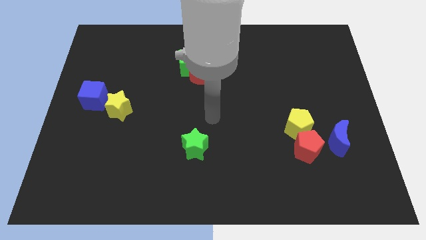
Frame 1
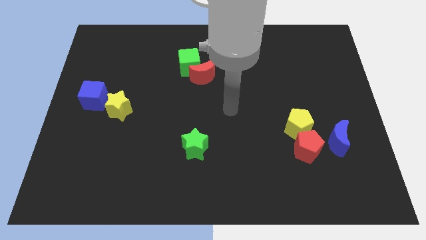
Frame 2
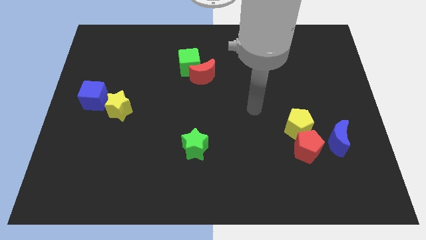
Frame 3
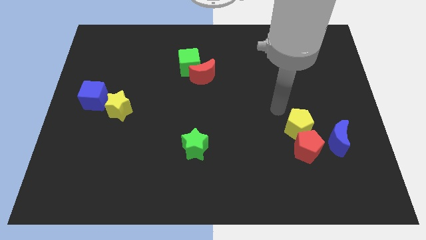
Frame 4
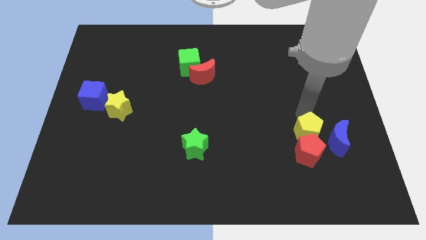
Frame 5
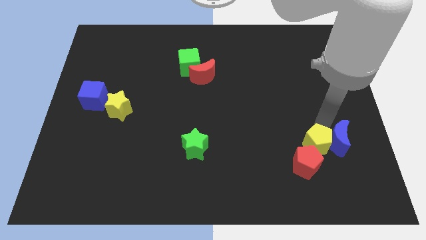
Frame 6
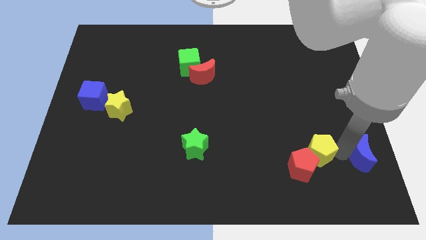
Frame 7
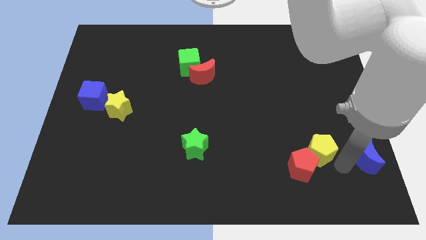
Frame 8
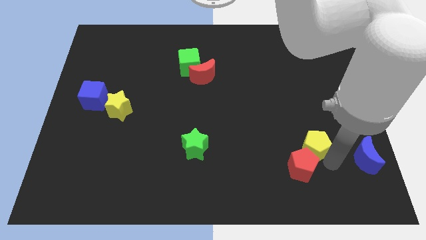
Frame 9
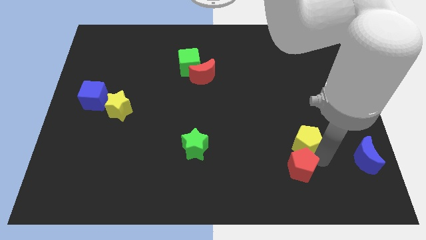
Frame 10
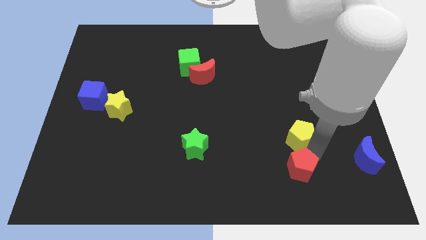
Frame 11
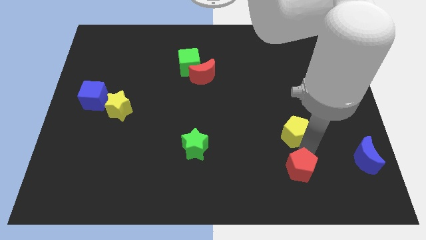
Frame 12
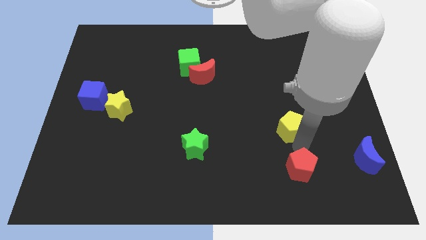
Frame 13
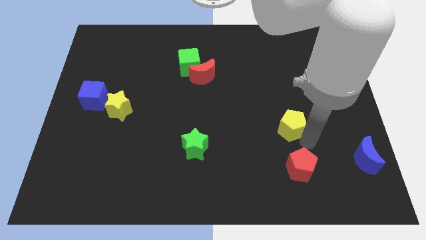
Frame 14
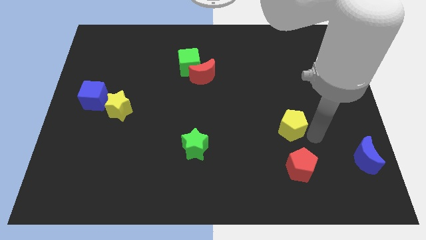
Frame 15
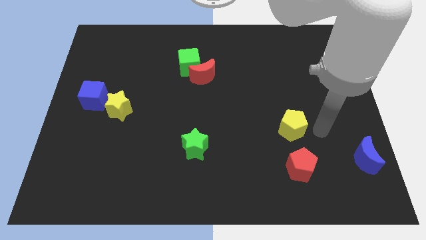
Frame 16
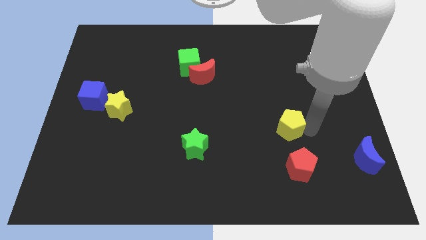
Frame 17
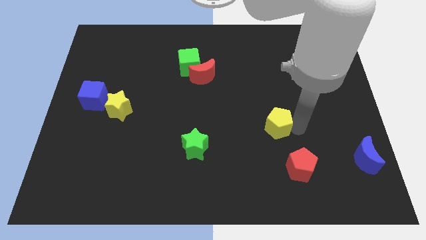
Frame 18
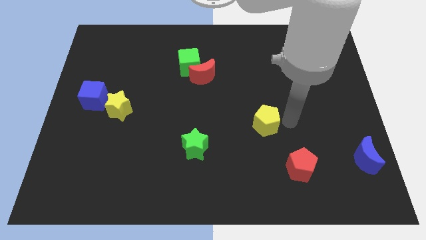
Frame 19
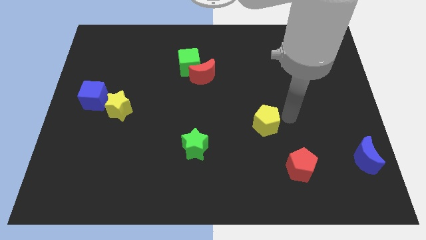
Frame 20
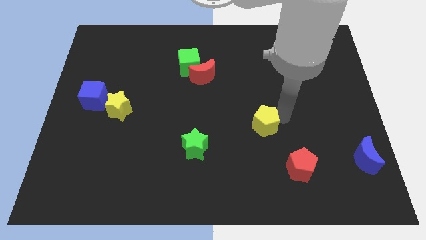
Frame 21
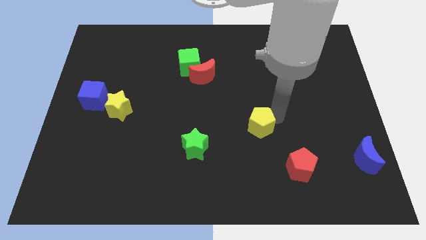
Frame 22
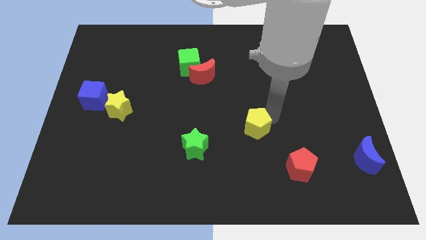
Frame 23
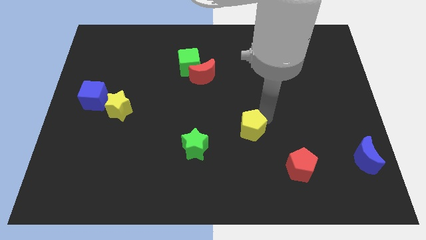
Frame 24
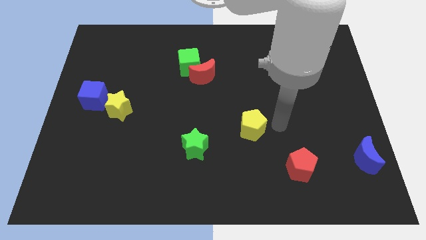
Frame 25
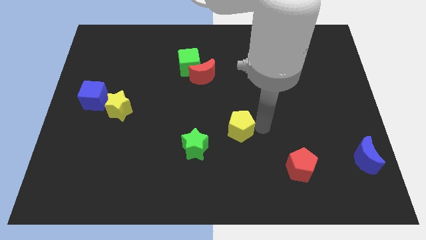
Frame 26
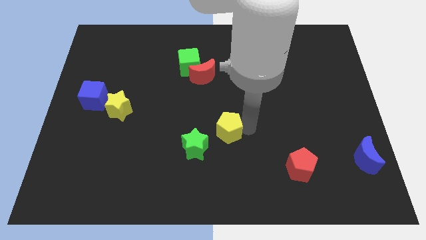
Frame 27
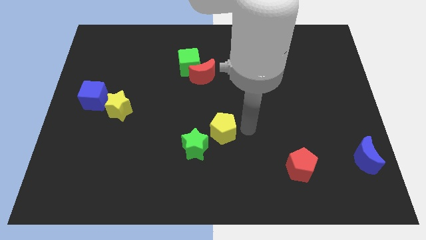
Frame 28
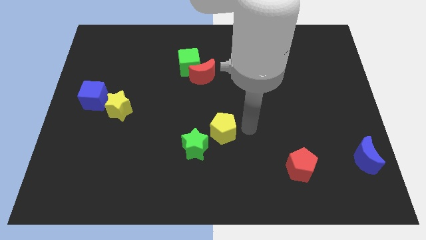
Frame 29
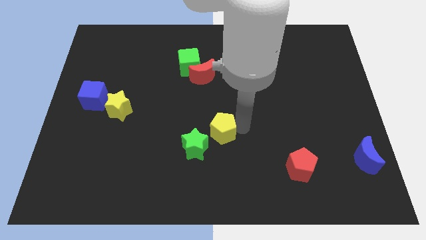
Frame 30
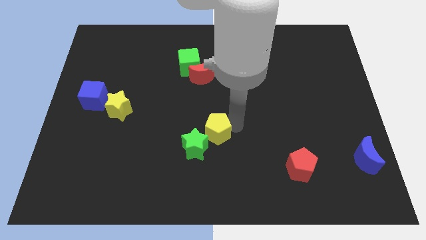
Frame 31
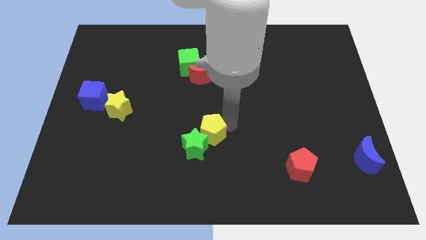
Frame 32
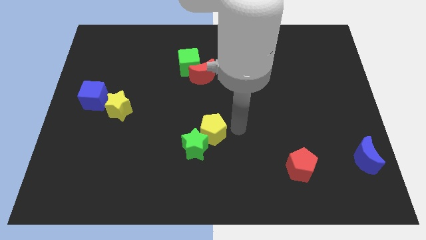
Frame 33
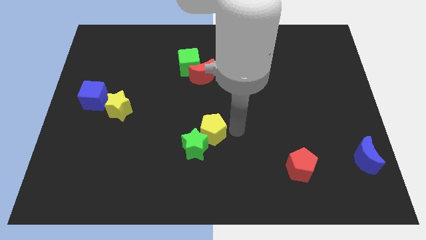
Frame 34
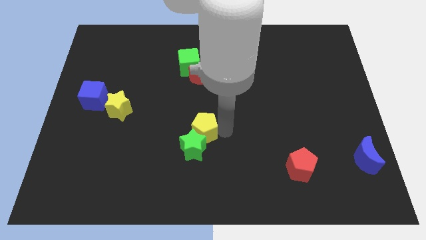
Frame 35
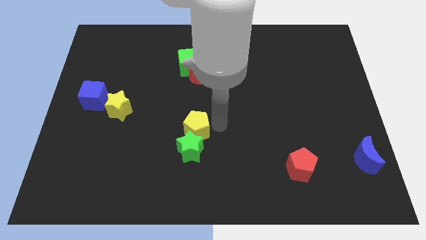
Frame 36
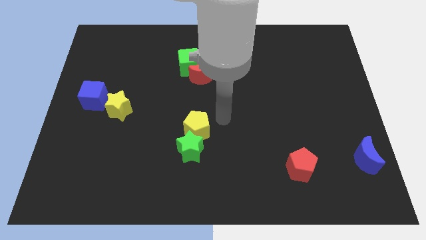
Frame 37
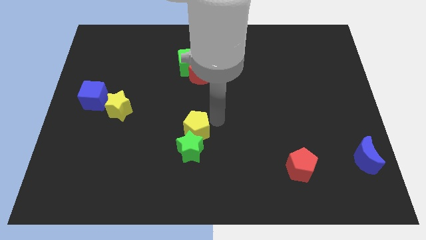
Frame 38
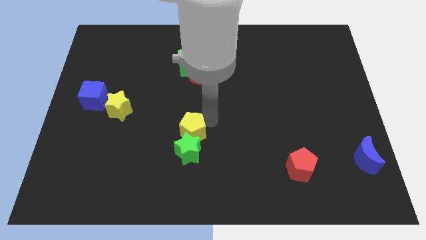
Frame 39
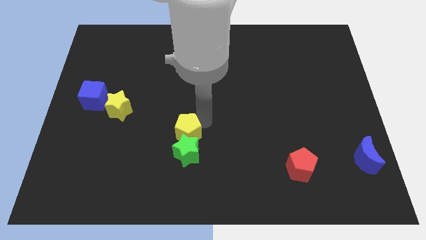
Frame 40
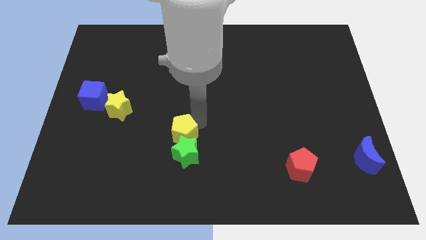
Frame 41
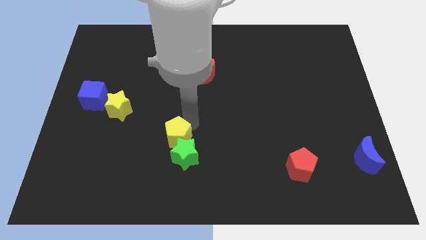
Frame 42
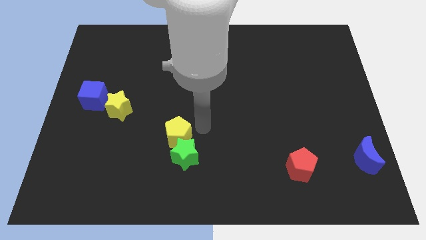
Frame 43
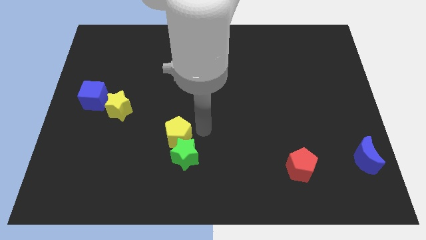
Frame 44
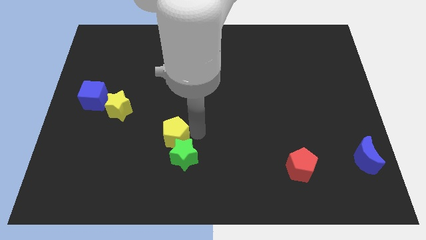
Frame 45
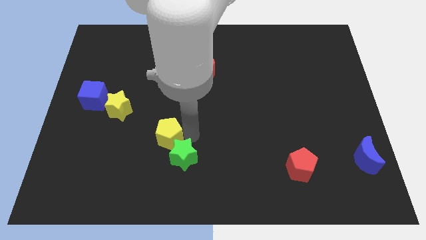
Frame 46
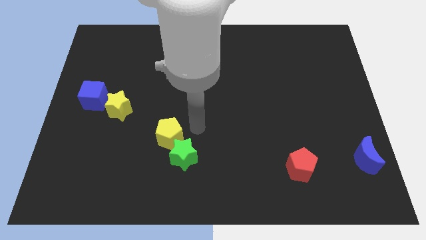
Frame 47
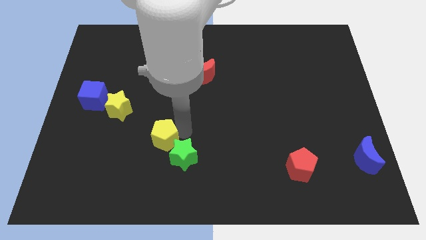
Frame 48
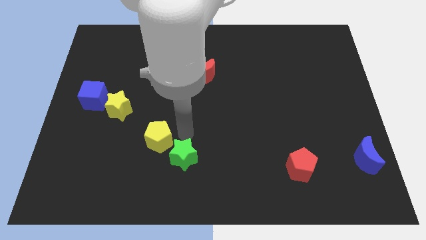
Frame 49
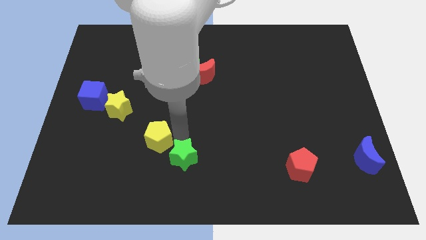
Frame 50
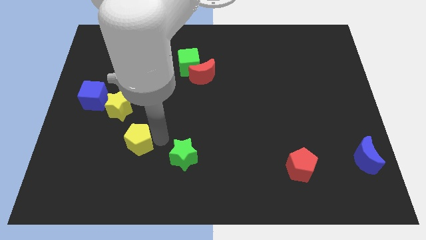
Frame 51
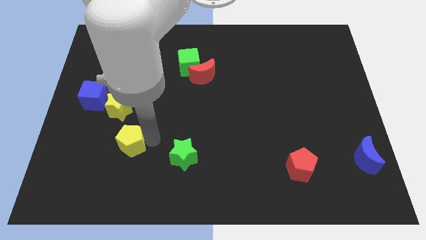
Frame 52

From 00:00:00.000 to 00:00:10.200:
move the yellow pentagon to the bottom of the yellow star

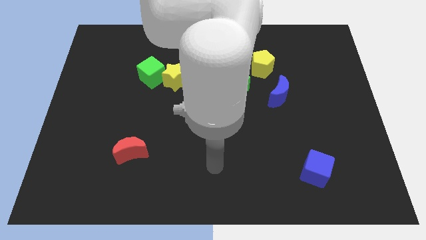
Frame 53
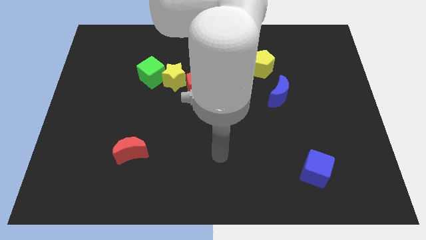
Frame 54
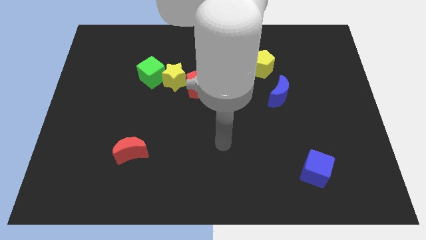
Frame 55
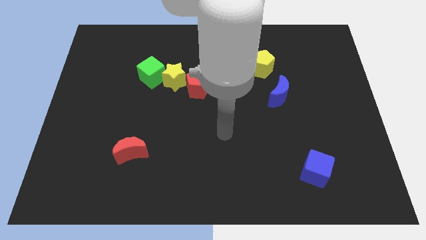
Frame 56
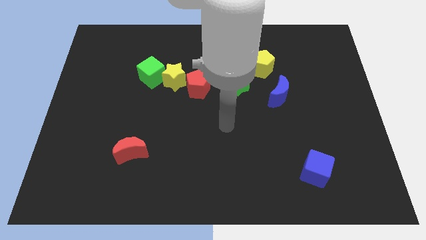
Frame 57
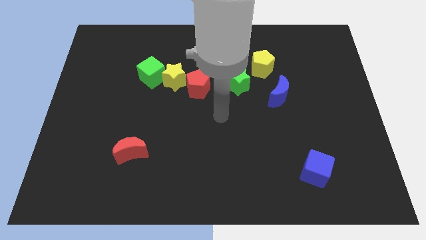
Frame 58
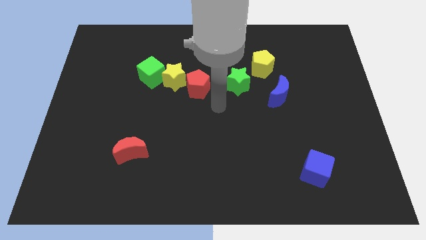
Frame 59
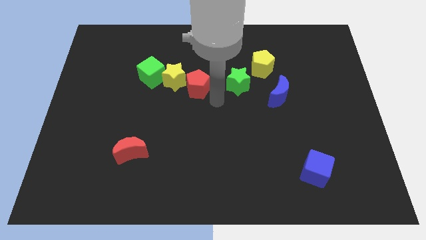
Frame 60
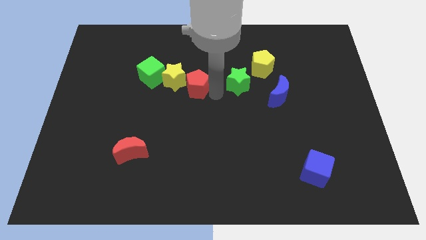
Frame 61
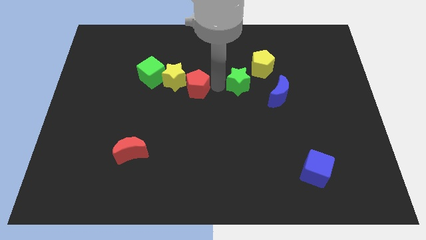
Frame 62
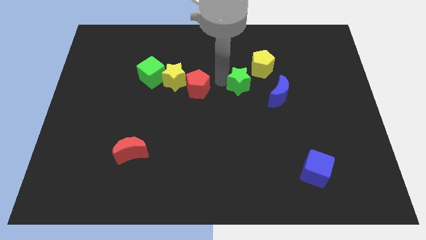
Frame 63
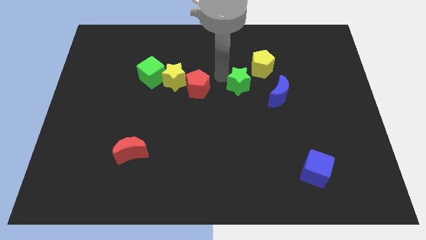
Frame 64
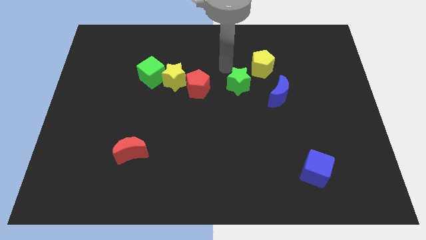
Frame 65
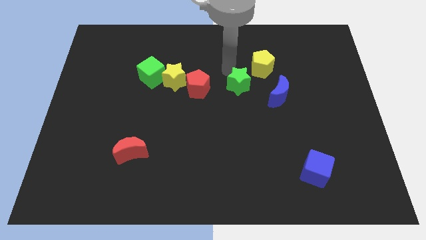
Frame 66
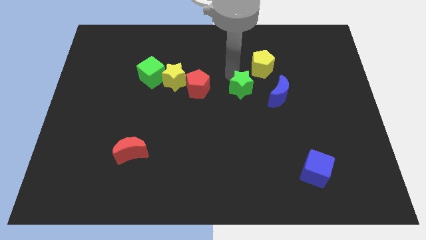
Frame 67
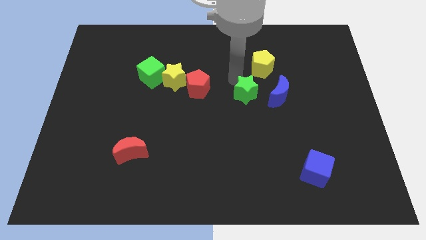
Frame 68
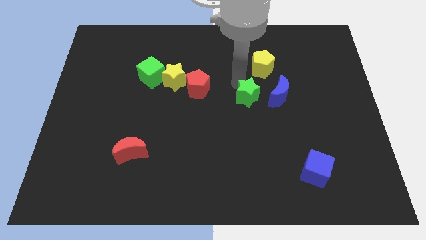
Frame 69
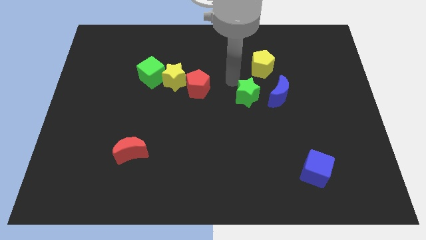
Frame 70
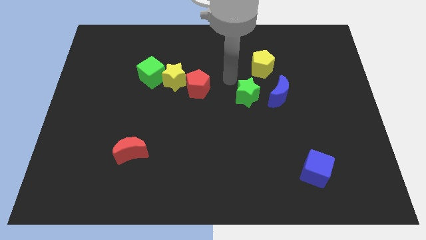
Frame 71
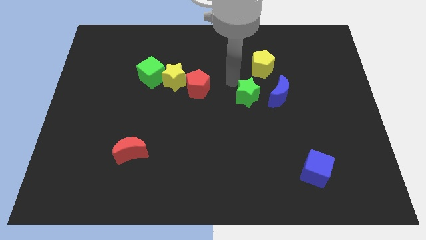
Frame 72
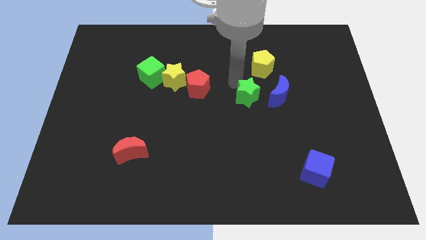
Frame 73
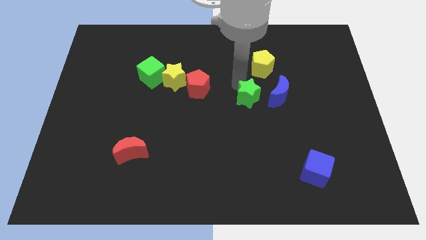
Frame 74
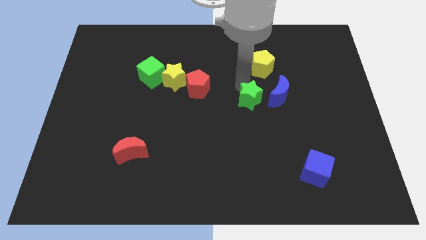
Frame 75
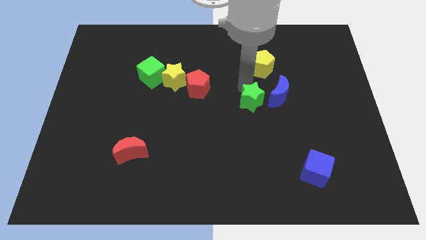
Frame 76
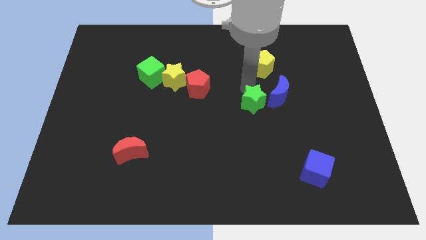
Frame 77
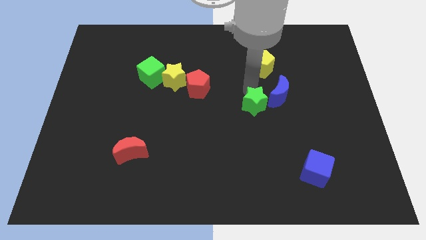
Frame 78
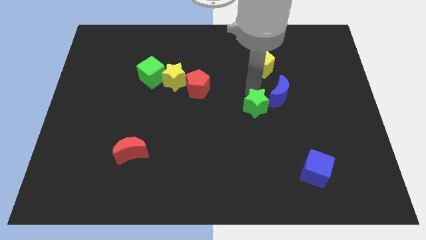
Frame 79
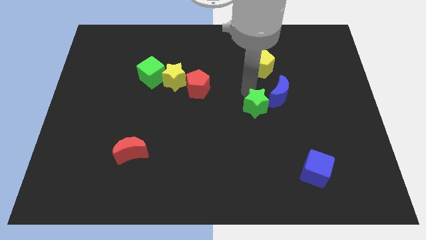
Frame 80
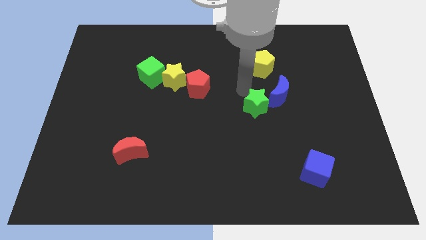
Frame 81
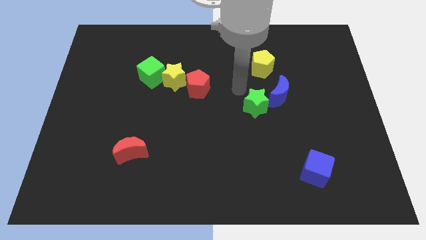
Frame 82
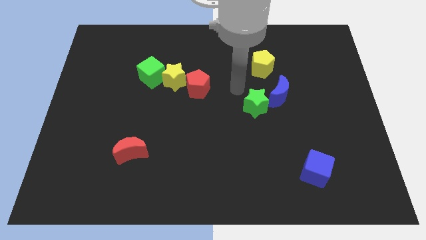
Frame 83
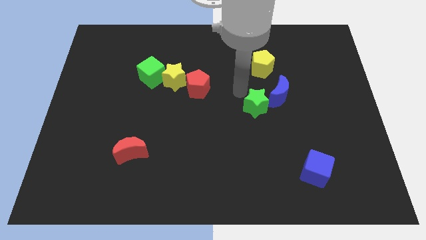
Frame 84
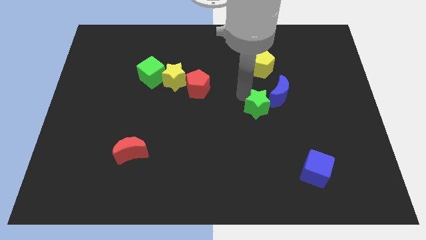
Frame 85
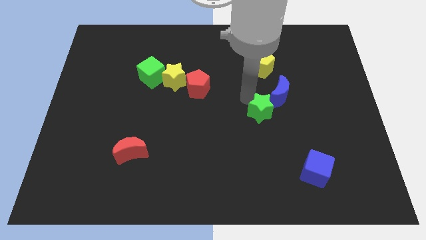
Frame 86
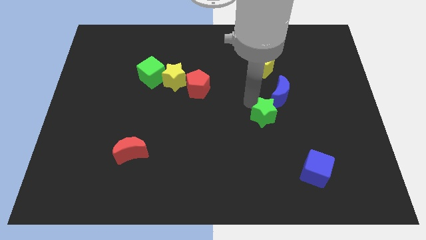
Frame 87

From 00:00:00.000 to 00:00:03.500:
put the green star to the bottom side of the blue moon
